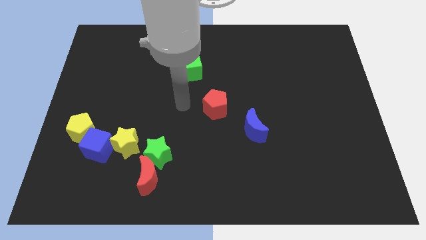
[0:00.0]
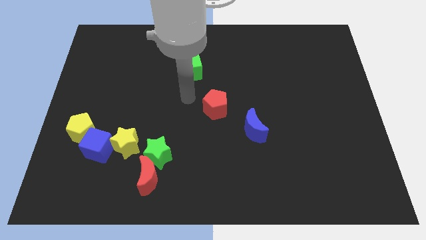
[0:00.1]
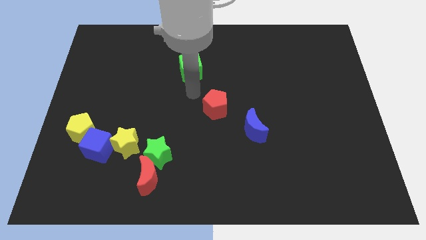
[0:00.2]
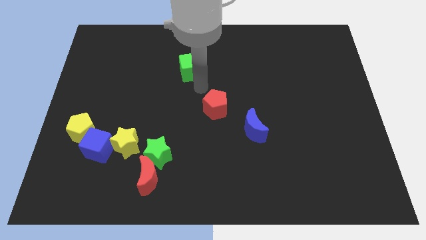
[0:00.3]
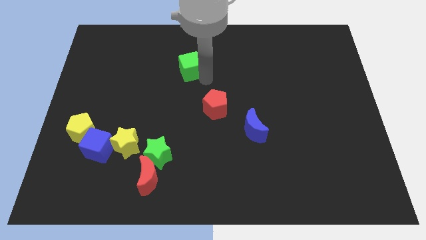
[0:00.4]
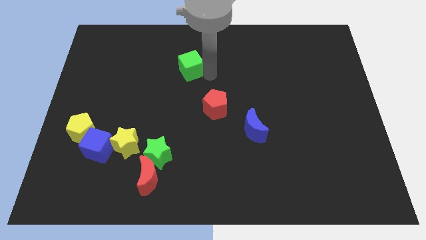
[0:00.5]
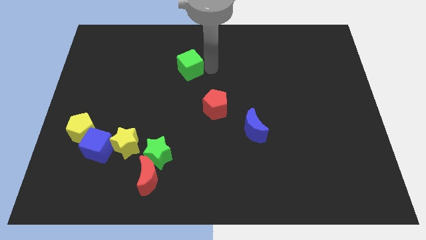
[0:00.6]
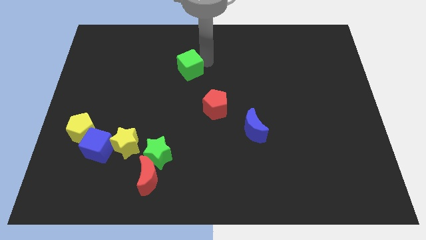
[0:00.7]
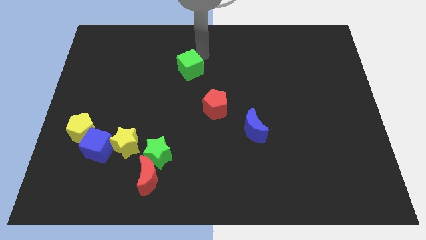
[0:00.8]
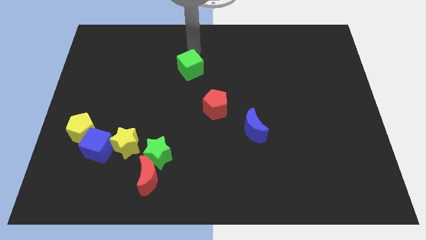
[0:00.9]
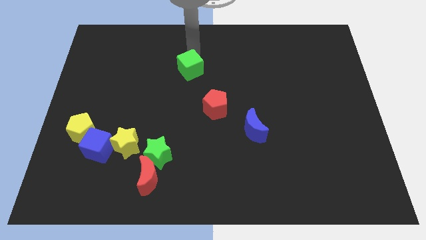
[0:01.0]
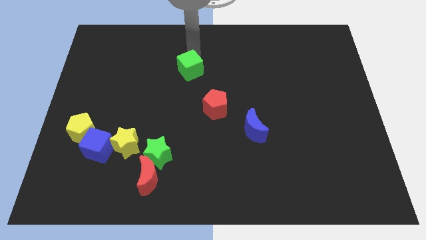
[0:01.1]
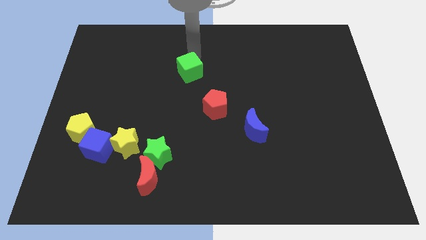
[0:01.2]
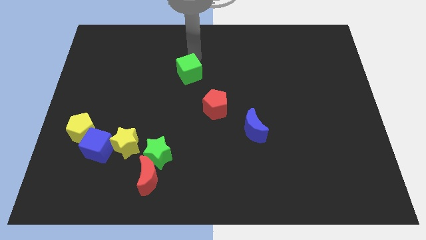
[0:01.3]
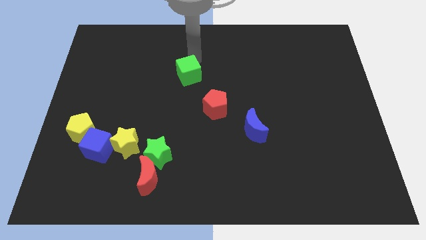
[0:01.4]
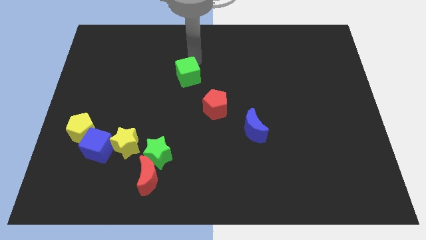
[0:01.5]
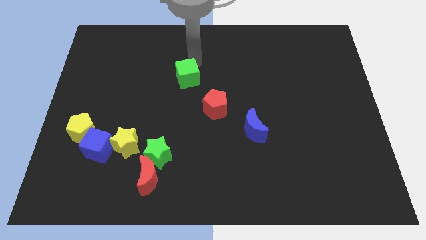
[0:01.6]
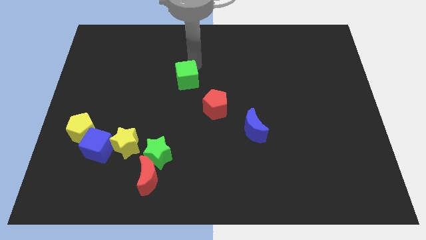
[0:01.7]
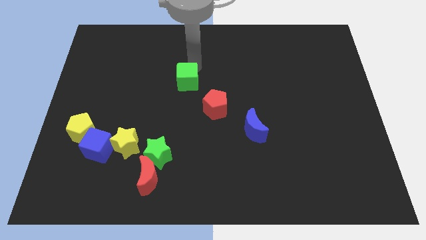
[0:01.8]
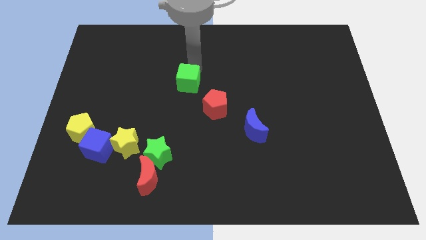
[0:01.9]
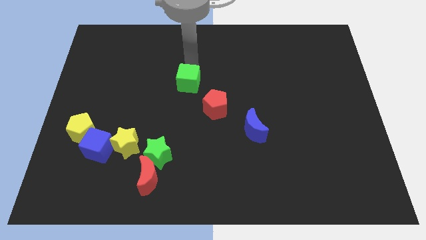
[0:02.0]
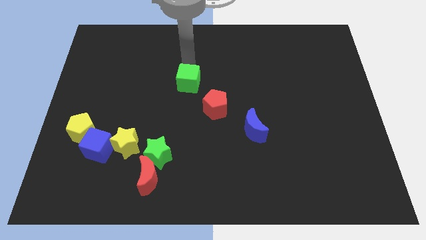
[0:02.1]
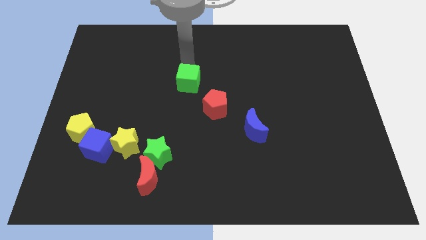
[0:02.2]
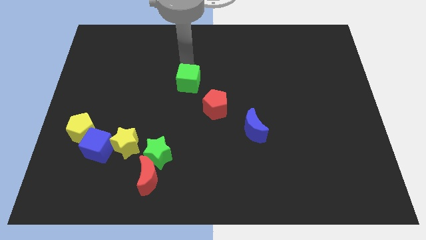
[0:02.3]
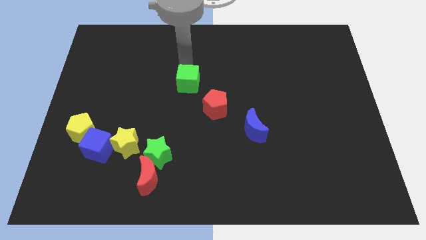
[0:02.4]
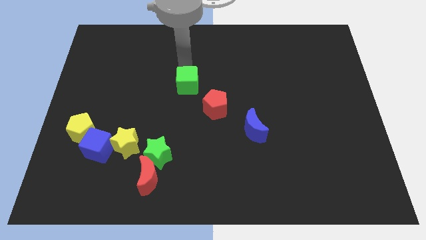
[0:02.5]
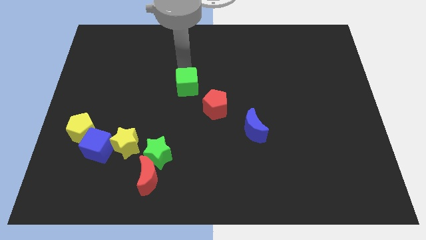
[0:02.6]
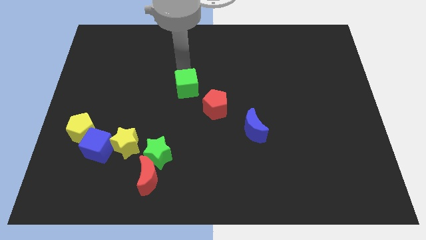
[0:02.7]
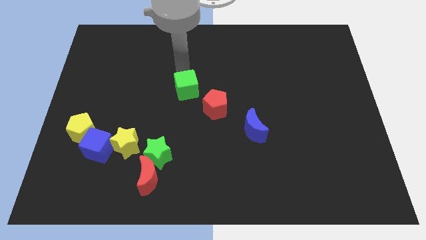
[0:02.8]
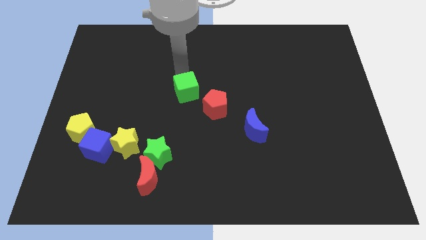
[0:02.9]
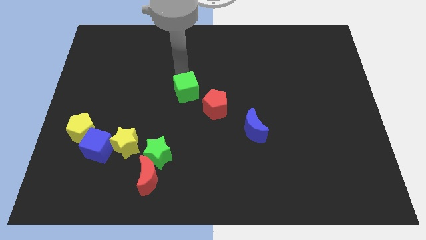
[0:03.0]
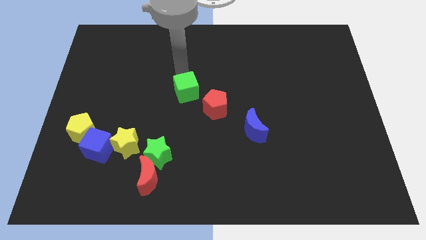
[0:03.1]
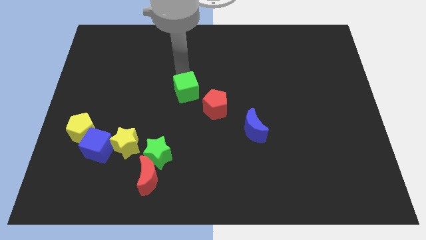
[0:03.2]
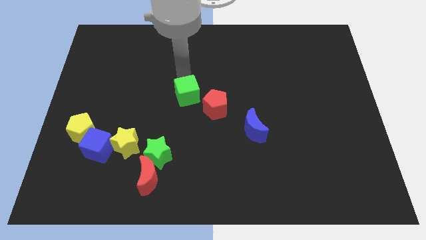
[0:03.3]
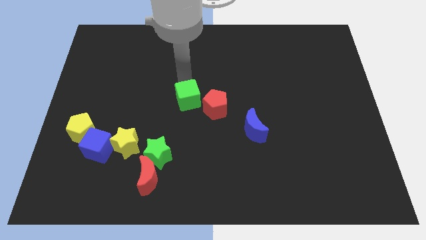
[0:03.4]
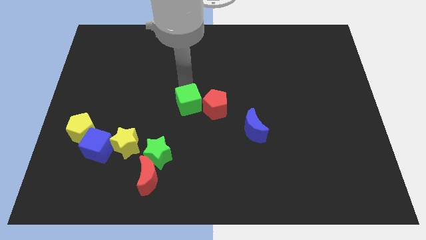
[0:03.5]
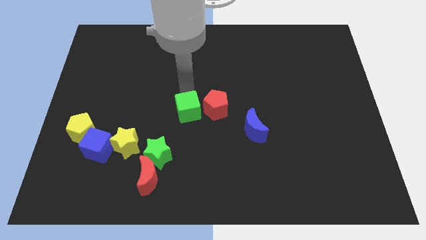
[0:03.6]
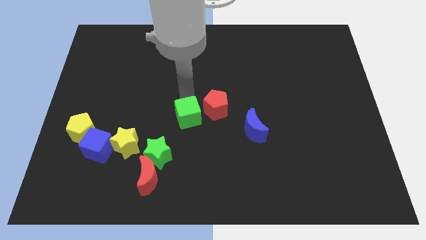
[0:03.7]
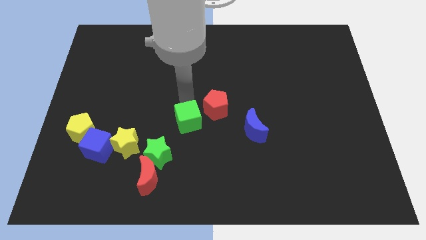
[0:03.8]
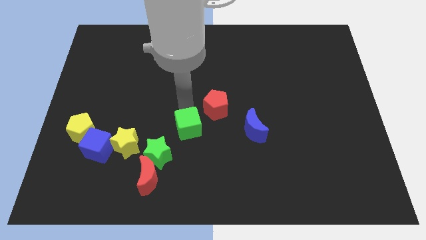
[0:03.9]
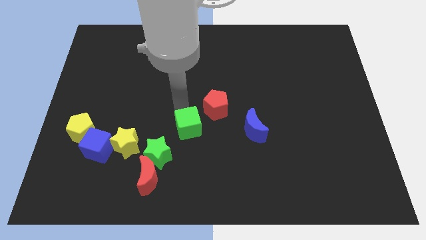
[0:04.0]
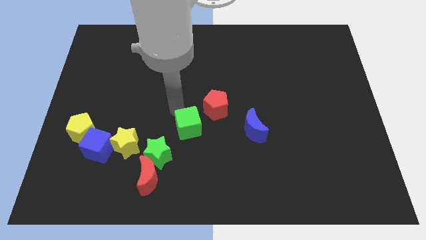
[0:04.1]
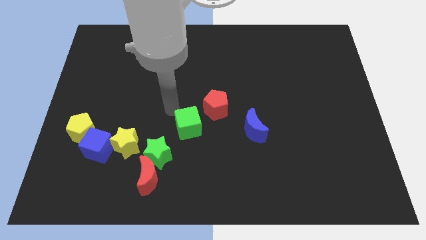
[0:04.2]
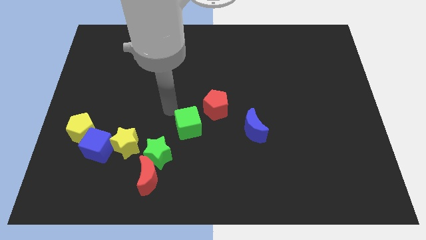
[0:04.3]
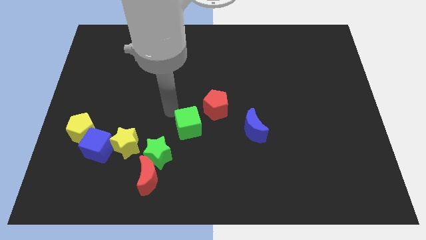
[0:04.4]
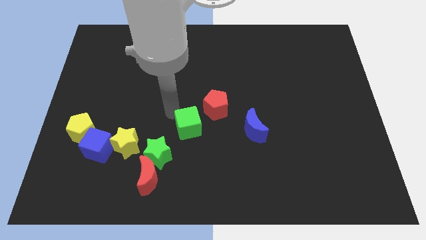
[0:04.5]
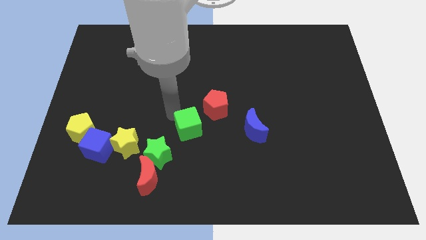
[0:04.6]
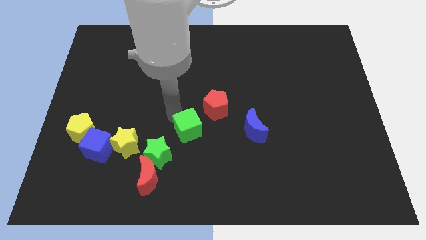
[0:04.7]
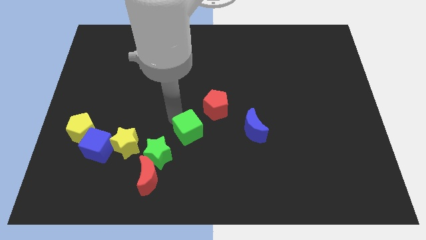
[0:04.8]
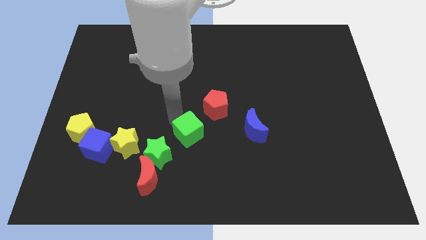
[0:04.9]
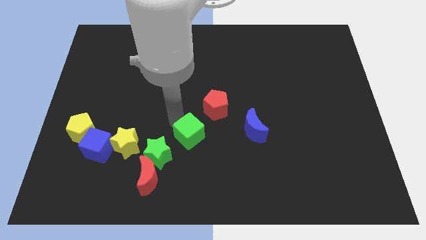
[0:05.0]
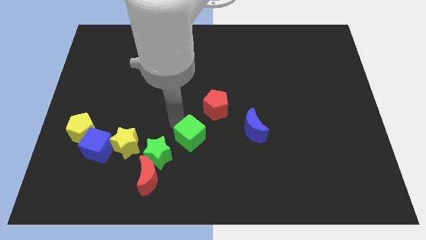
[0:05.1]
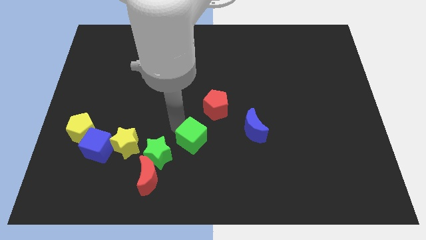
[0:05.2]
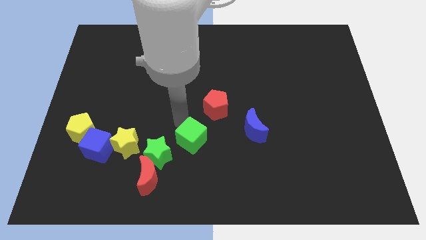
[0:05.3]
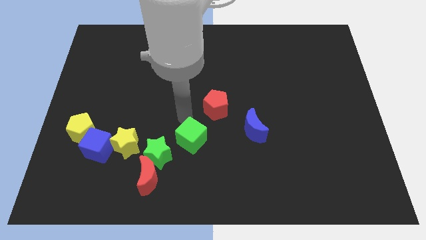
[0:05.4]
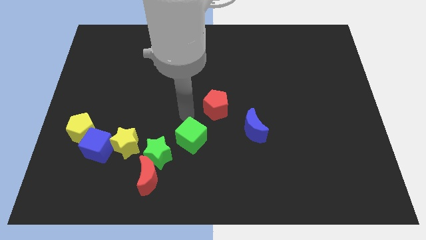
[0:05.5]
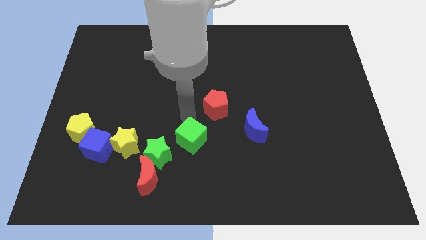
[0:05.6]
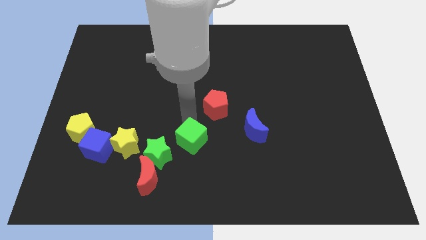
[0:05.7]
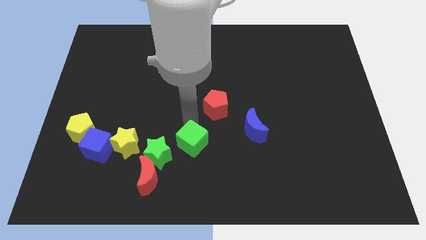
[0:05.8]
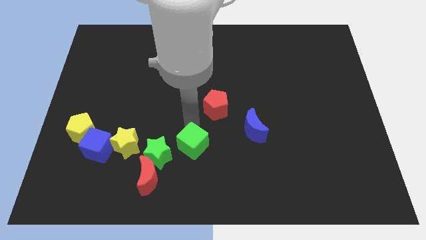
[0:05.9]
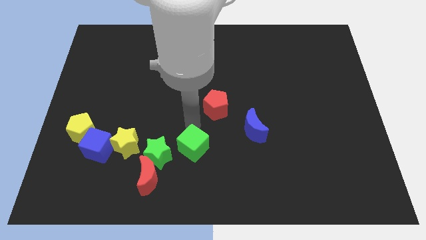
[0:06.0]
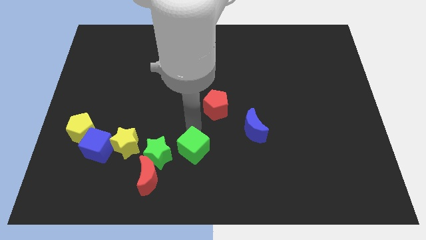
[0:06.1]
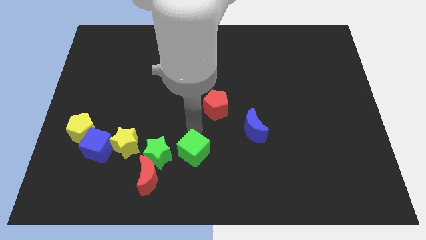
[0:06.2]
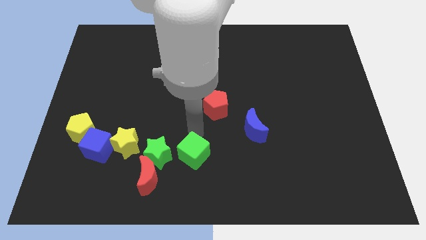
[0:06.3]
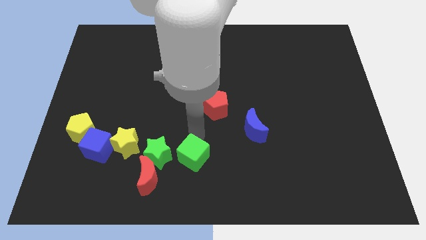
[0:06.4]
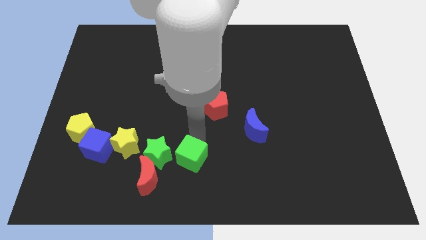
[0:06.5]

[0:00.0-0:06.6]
move the green cube right of the red moon
